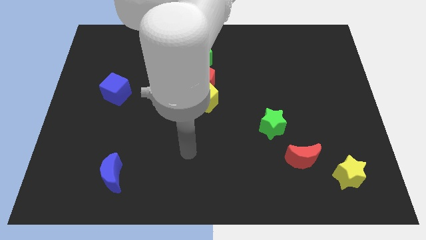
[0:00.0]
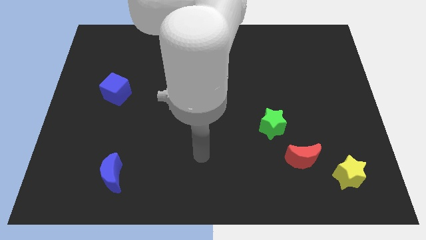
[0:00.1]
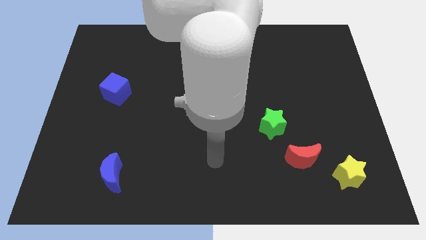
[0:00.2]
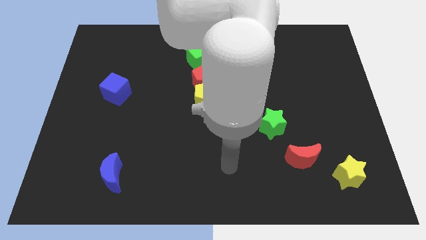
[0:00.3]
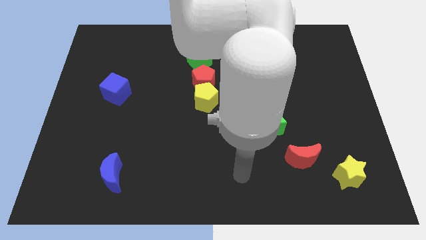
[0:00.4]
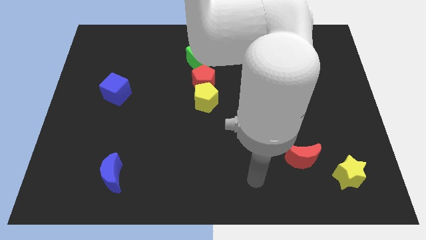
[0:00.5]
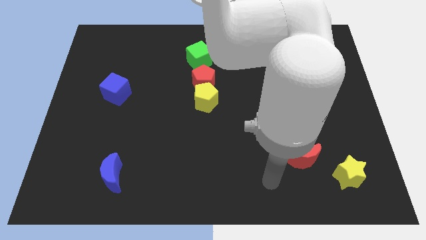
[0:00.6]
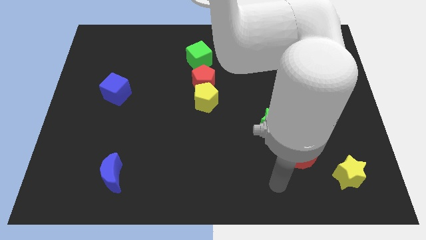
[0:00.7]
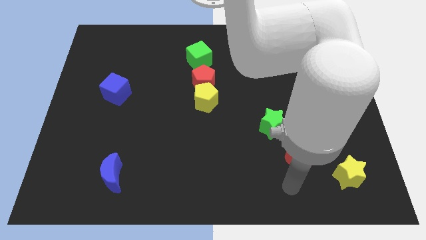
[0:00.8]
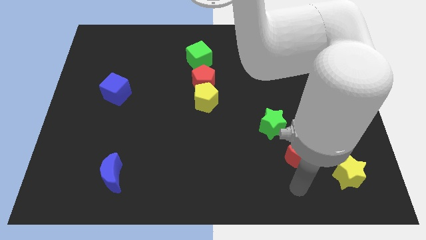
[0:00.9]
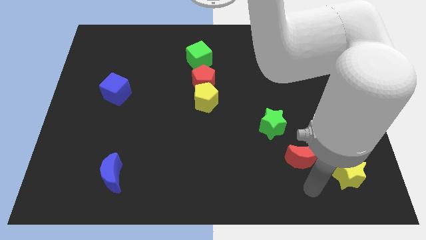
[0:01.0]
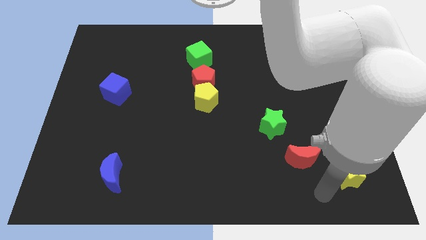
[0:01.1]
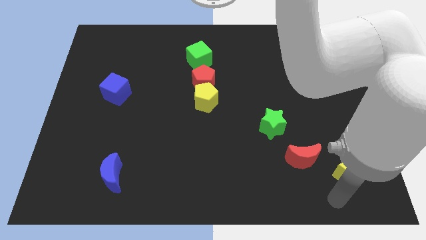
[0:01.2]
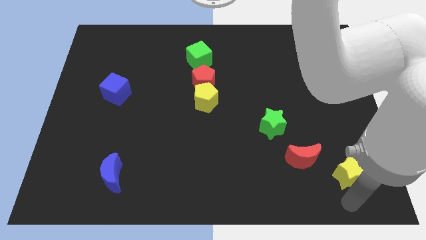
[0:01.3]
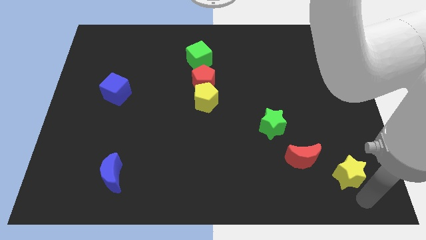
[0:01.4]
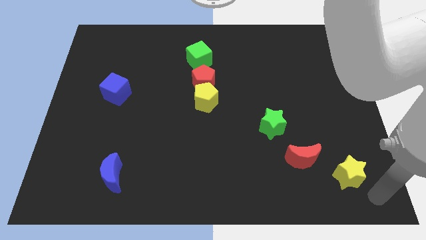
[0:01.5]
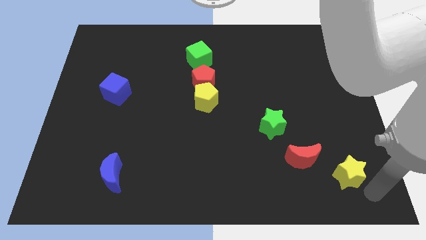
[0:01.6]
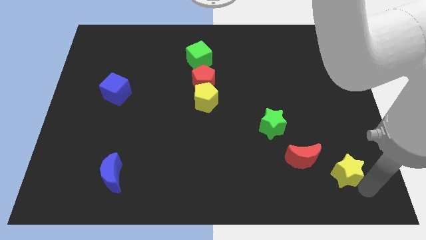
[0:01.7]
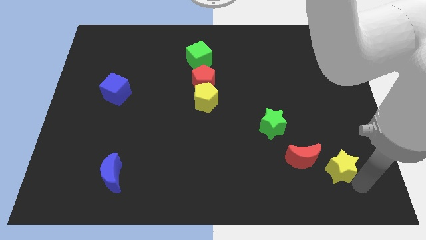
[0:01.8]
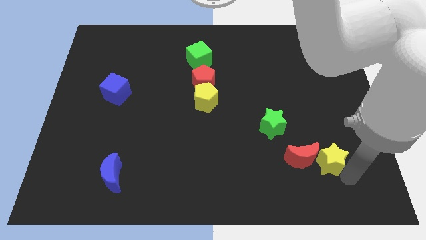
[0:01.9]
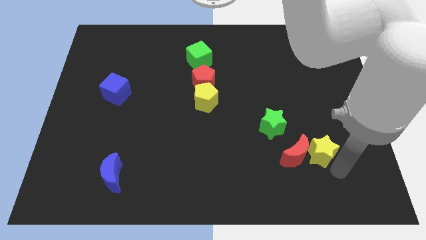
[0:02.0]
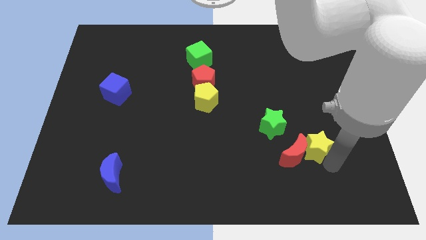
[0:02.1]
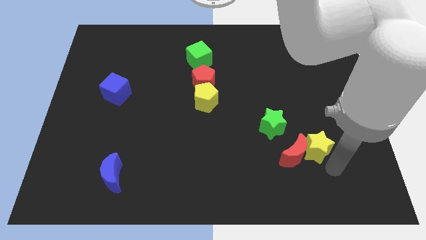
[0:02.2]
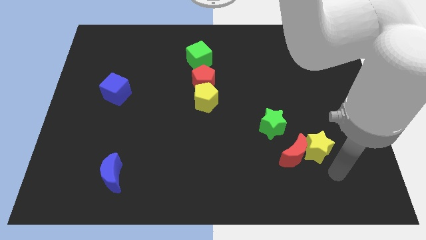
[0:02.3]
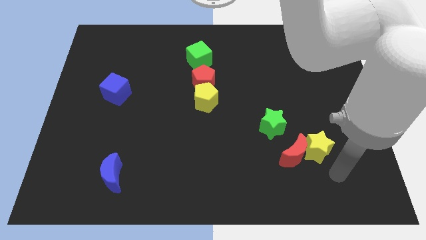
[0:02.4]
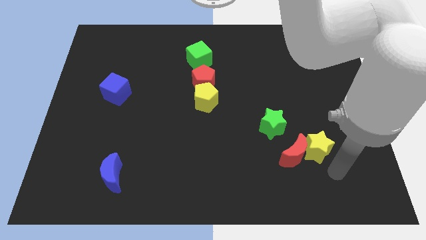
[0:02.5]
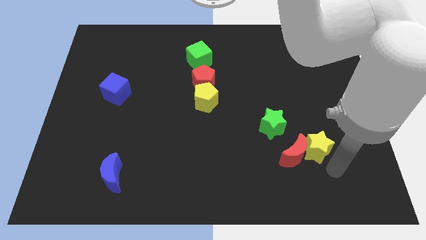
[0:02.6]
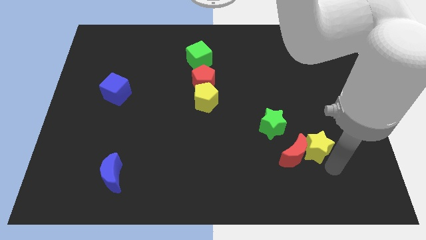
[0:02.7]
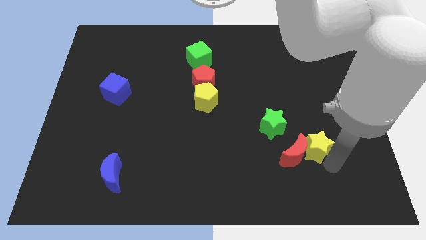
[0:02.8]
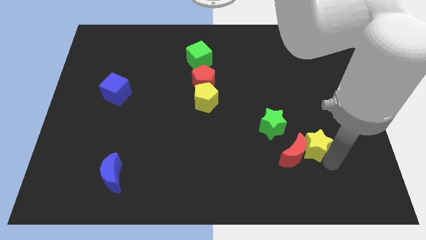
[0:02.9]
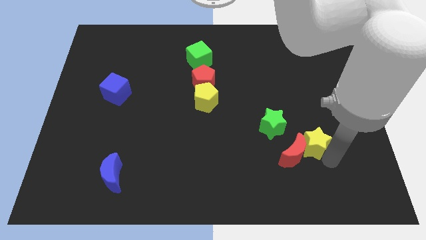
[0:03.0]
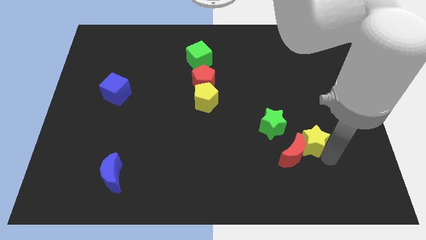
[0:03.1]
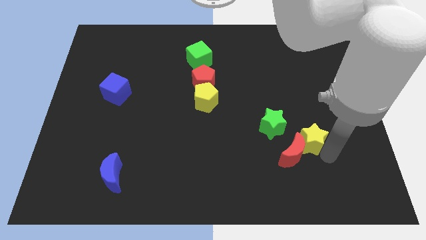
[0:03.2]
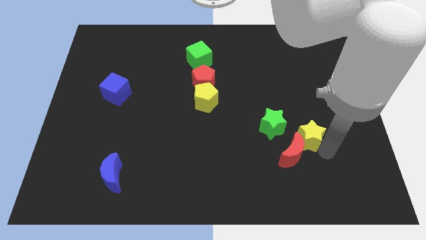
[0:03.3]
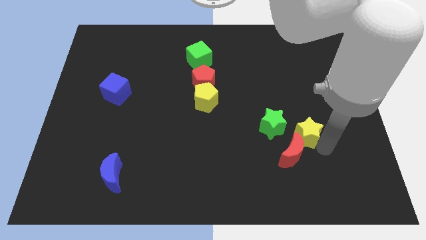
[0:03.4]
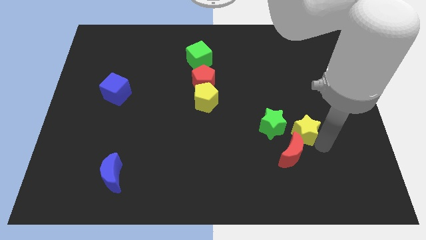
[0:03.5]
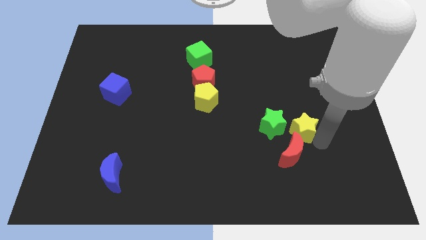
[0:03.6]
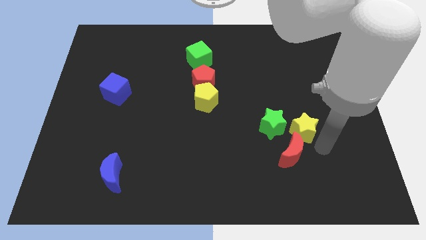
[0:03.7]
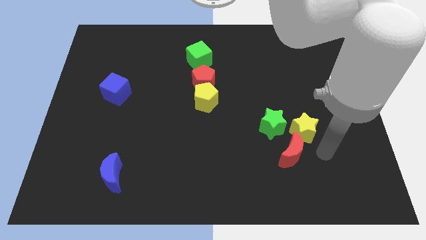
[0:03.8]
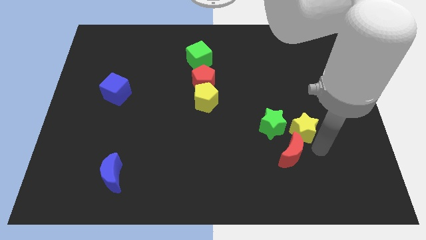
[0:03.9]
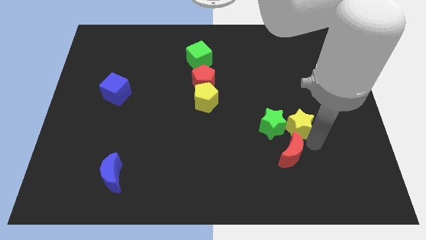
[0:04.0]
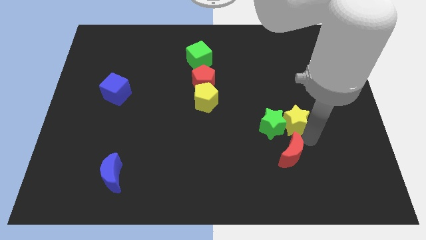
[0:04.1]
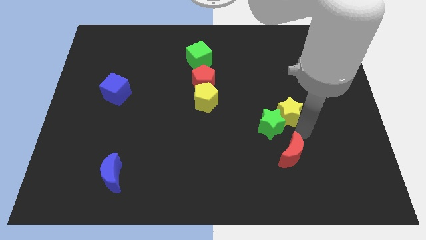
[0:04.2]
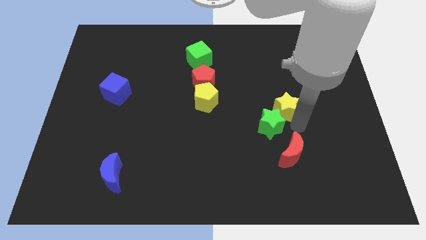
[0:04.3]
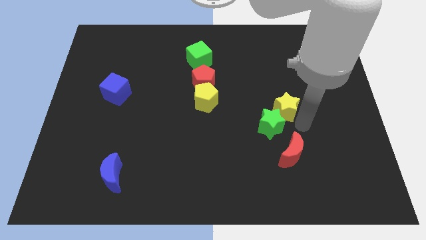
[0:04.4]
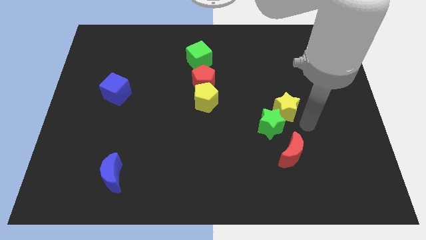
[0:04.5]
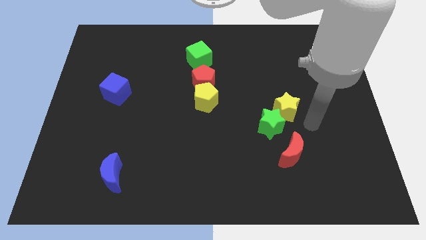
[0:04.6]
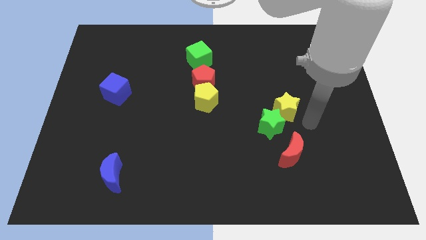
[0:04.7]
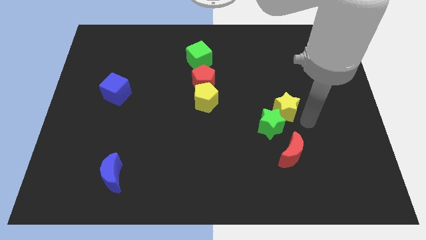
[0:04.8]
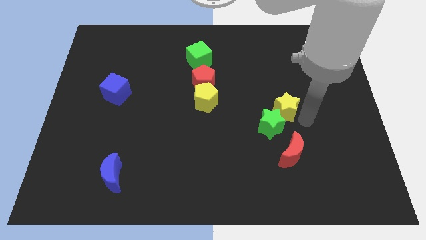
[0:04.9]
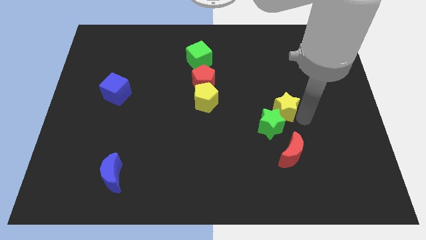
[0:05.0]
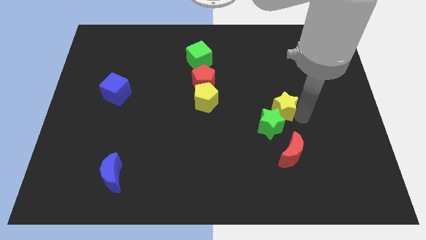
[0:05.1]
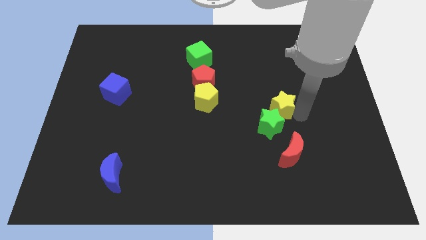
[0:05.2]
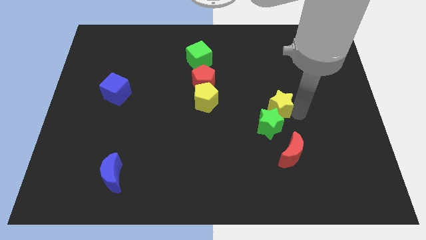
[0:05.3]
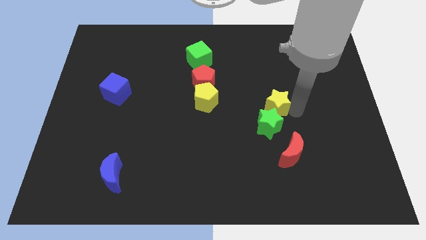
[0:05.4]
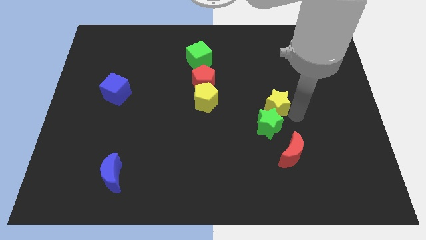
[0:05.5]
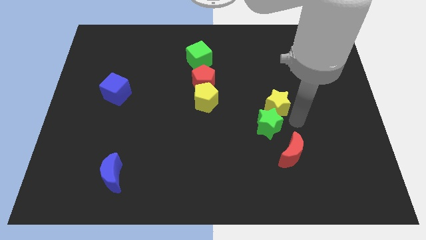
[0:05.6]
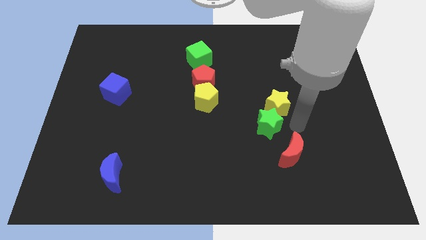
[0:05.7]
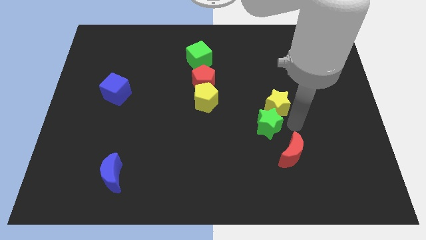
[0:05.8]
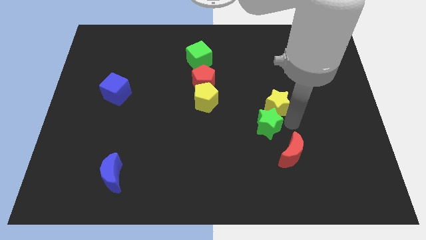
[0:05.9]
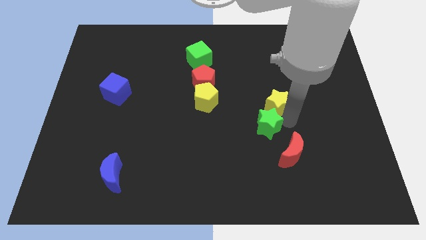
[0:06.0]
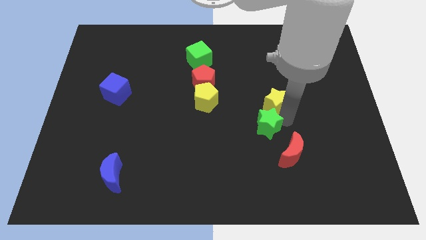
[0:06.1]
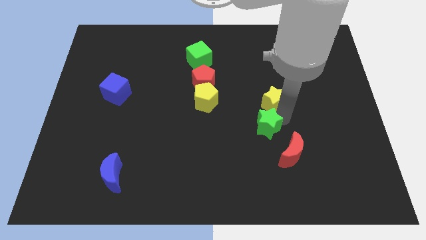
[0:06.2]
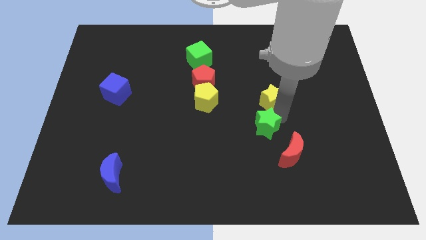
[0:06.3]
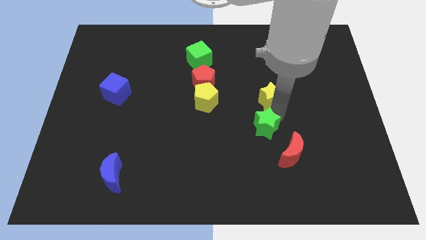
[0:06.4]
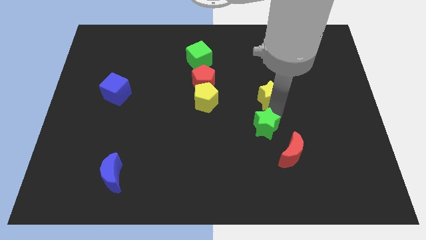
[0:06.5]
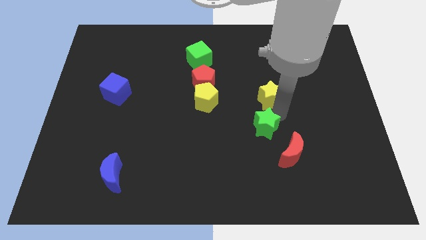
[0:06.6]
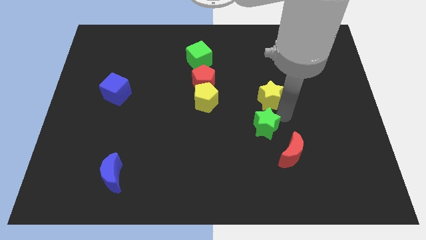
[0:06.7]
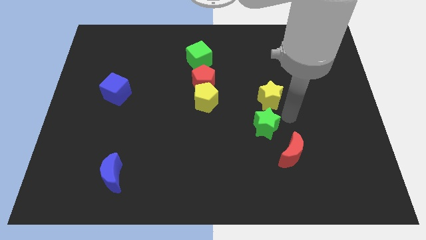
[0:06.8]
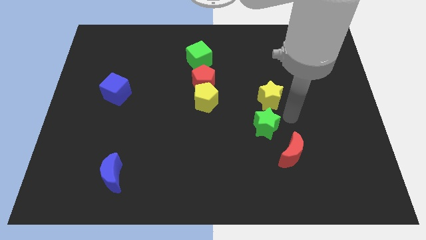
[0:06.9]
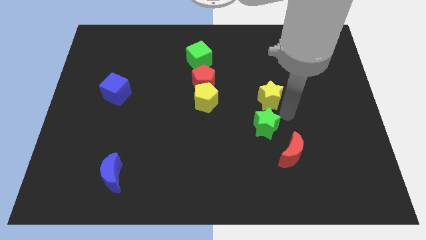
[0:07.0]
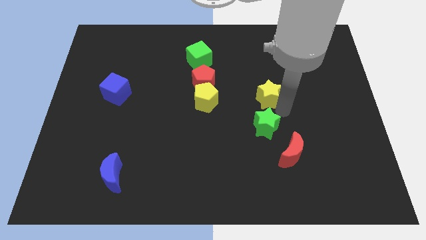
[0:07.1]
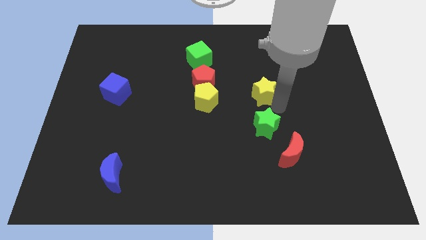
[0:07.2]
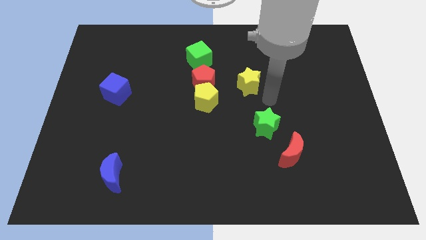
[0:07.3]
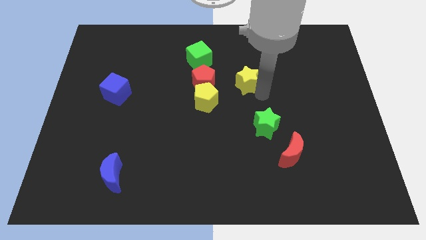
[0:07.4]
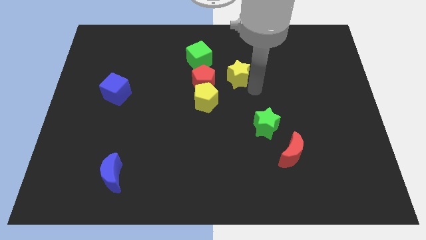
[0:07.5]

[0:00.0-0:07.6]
slide the yellow star to the top right of the red pentagon
